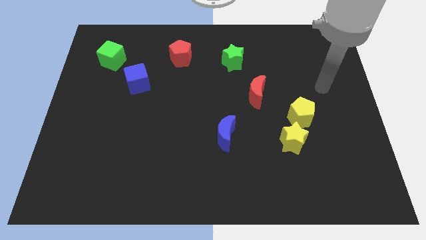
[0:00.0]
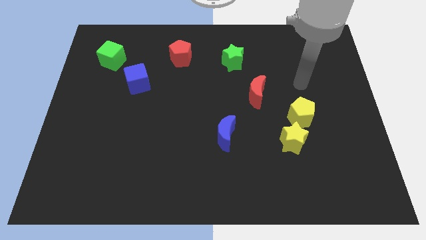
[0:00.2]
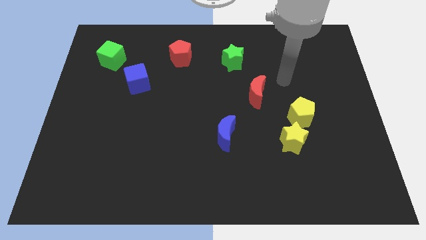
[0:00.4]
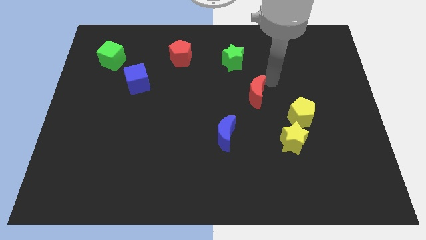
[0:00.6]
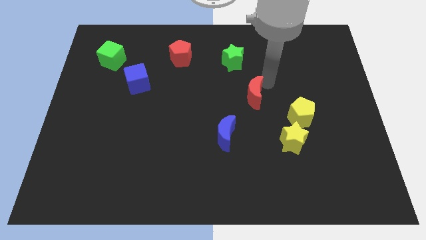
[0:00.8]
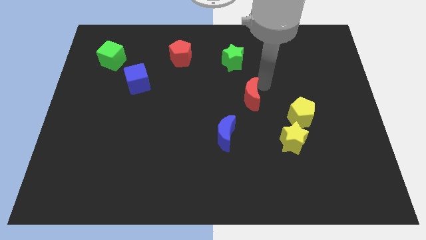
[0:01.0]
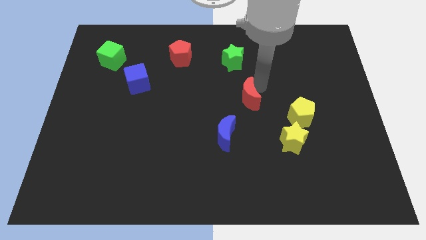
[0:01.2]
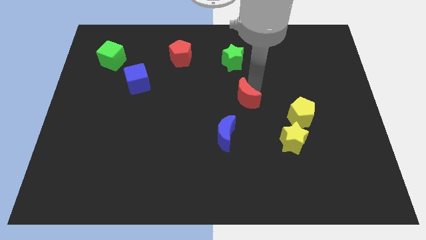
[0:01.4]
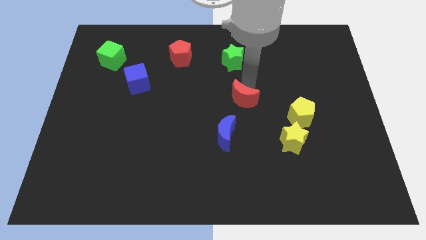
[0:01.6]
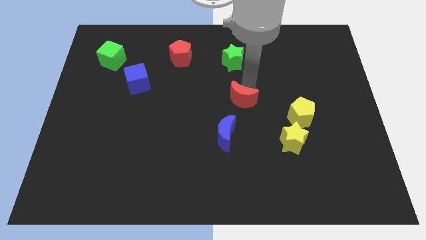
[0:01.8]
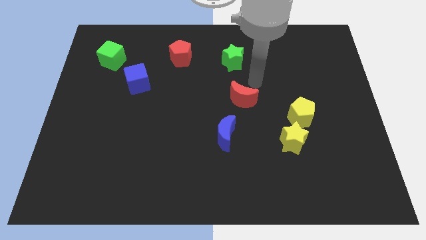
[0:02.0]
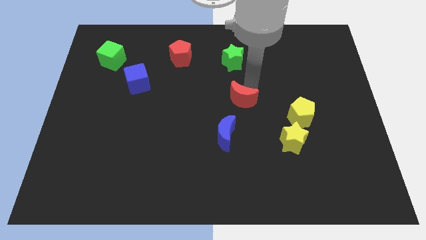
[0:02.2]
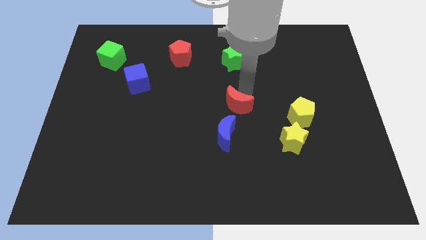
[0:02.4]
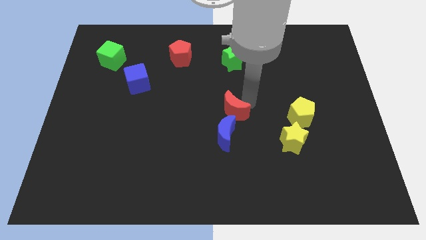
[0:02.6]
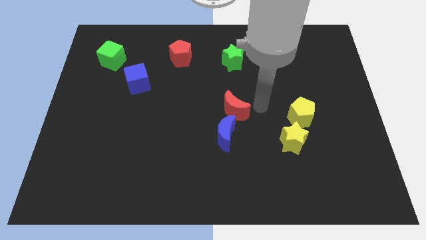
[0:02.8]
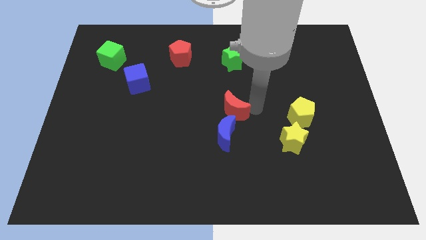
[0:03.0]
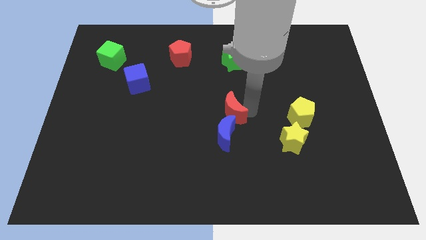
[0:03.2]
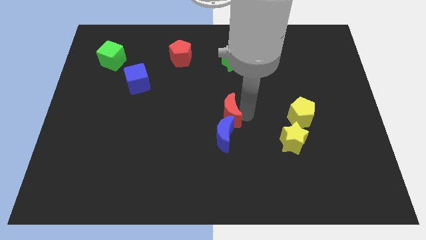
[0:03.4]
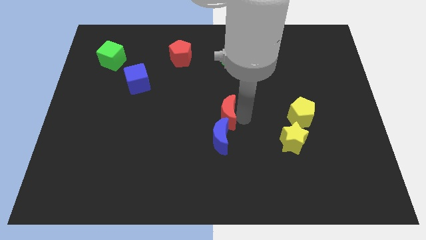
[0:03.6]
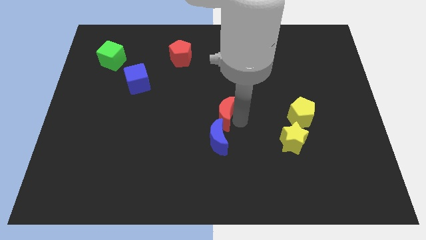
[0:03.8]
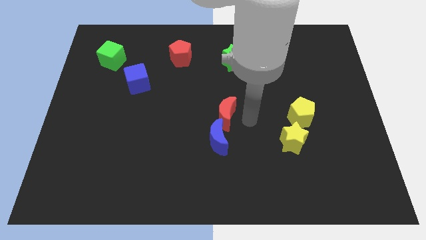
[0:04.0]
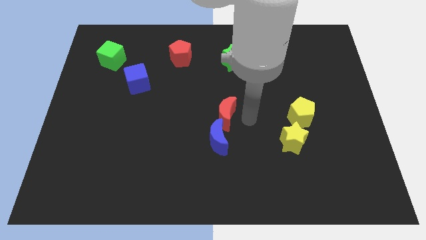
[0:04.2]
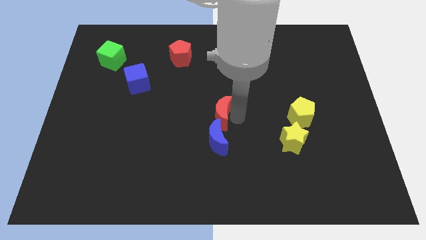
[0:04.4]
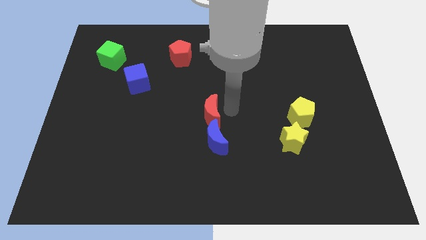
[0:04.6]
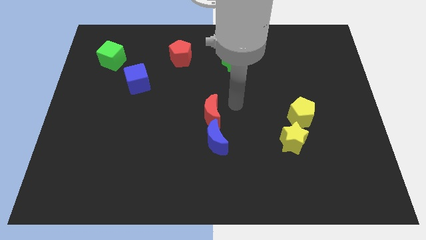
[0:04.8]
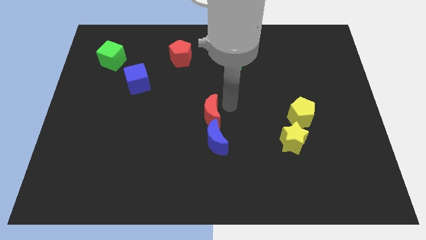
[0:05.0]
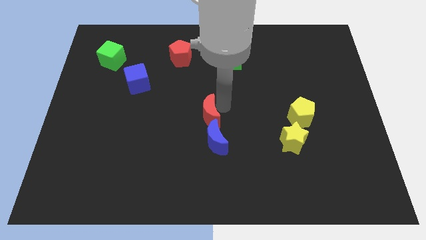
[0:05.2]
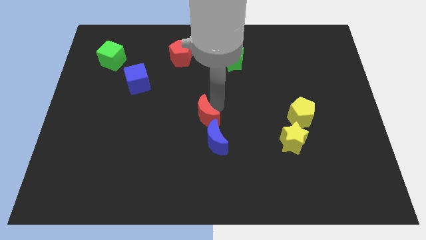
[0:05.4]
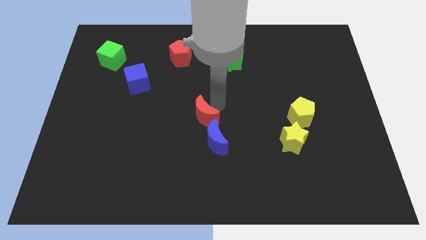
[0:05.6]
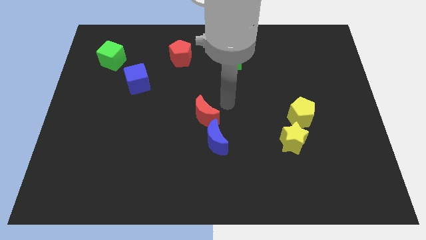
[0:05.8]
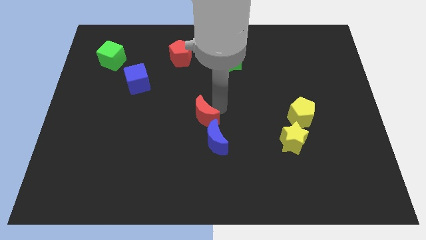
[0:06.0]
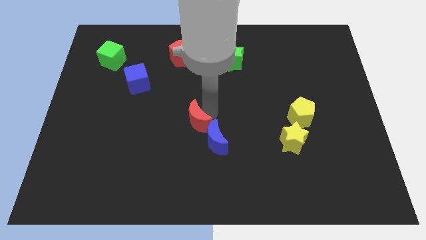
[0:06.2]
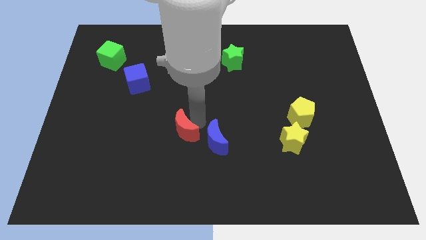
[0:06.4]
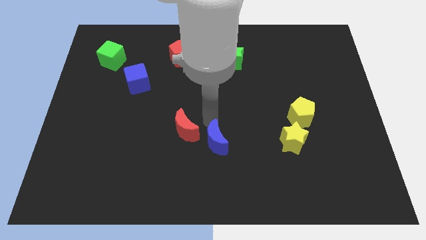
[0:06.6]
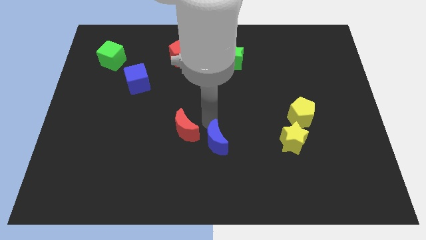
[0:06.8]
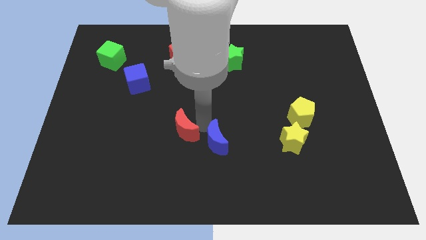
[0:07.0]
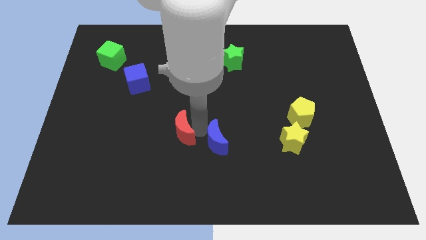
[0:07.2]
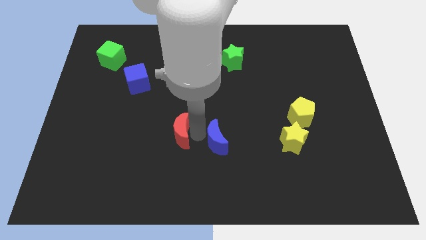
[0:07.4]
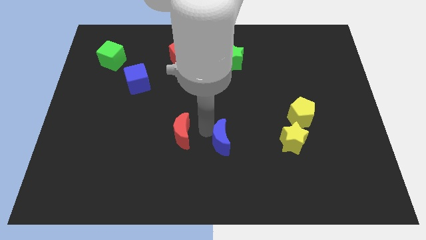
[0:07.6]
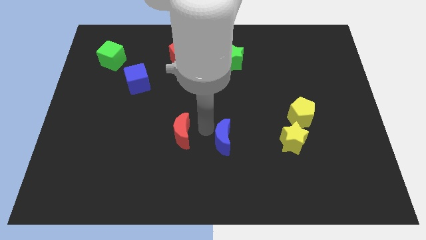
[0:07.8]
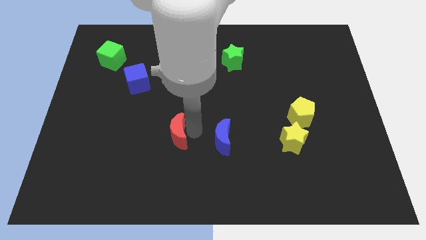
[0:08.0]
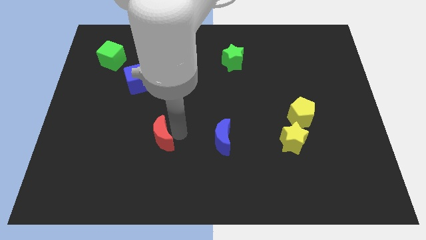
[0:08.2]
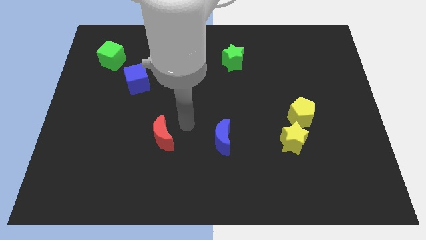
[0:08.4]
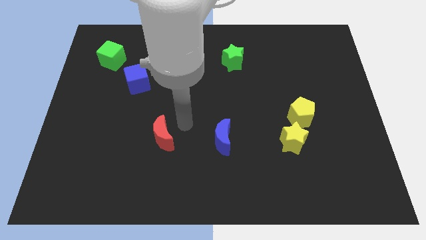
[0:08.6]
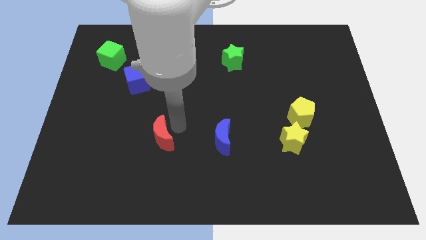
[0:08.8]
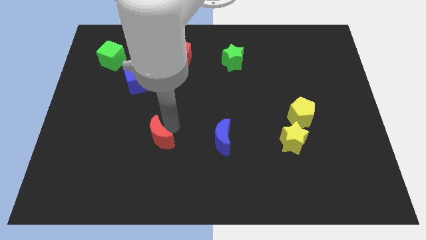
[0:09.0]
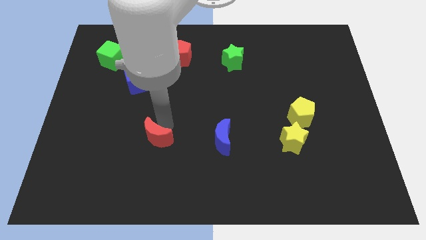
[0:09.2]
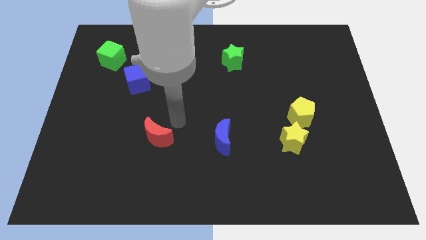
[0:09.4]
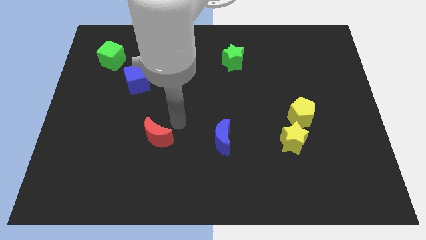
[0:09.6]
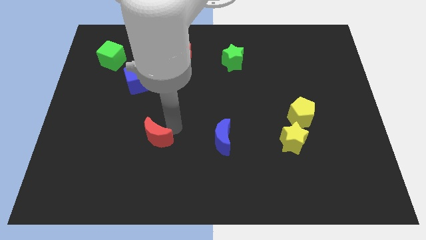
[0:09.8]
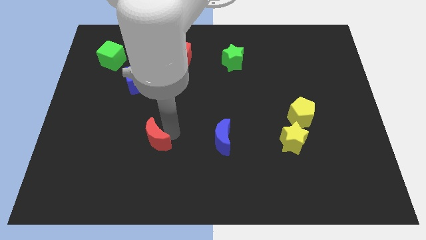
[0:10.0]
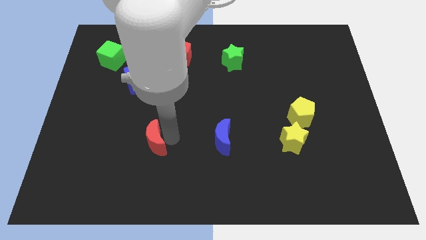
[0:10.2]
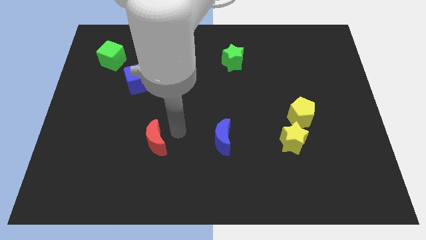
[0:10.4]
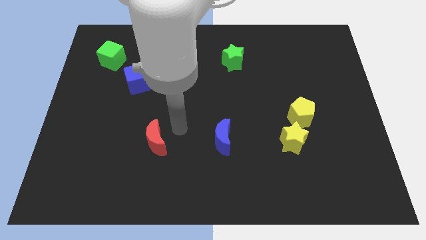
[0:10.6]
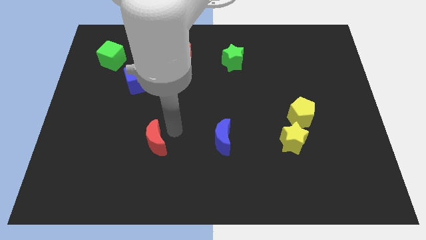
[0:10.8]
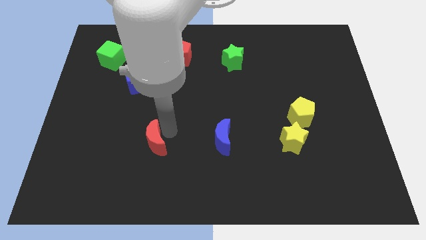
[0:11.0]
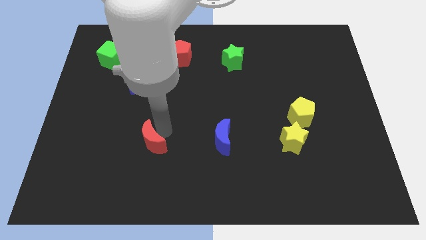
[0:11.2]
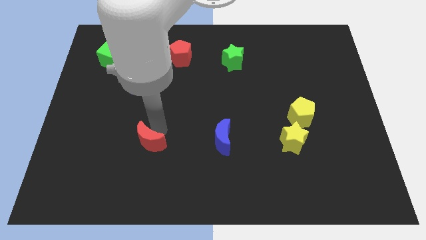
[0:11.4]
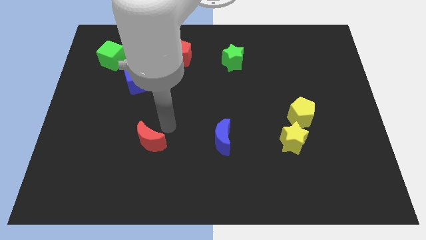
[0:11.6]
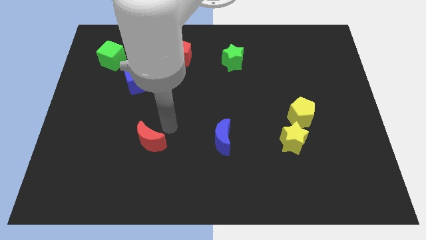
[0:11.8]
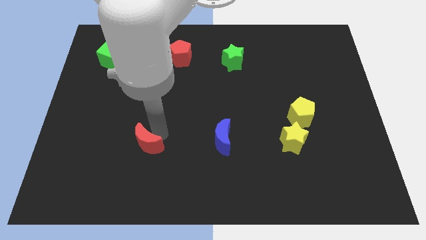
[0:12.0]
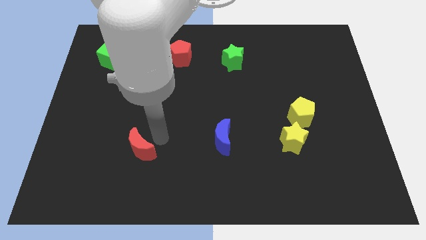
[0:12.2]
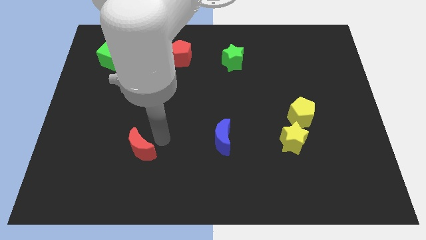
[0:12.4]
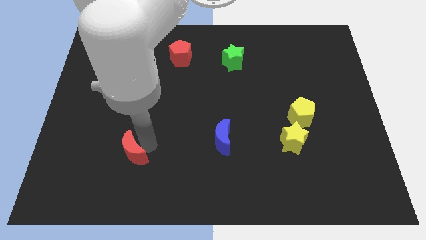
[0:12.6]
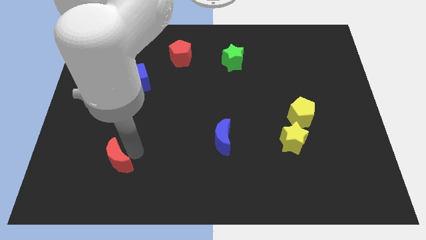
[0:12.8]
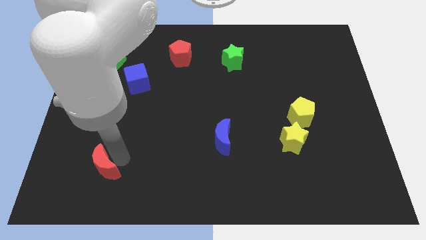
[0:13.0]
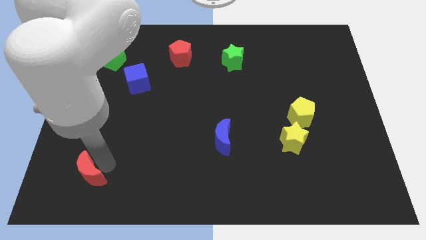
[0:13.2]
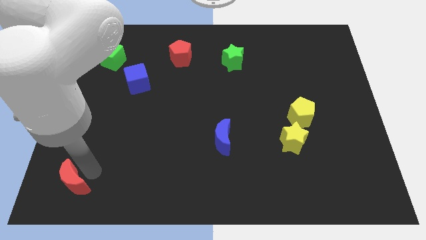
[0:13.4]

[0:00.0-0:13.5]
put the red moon to the bottom left
